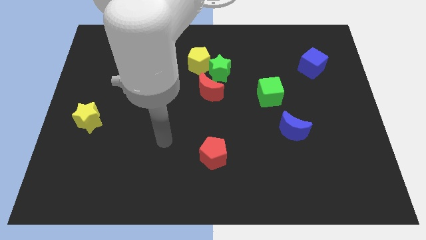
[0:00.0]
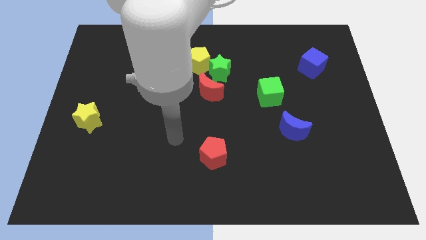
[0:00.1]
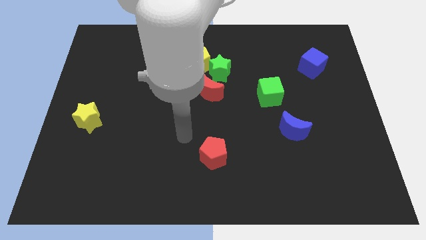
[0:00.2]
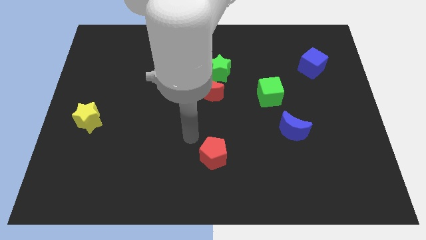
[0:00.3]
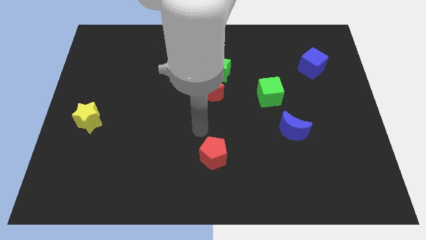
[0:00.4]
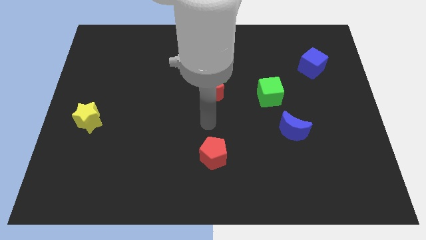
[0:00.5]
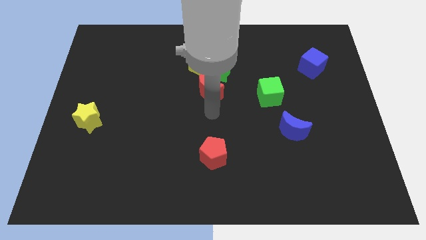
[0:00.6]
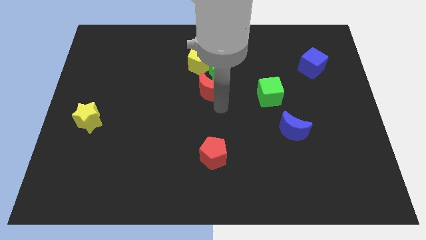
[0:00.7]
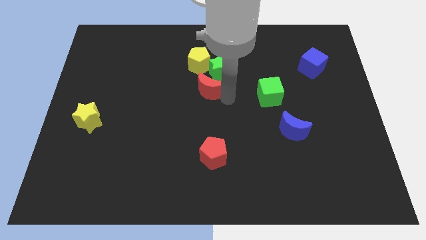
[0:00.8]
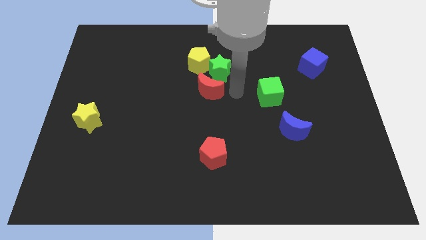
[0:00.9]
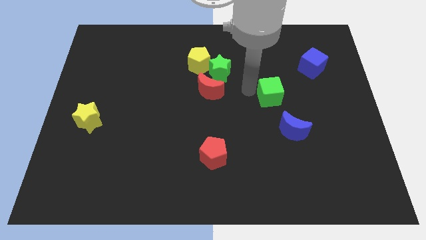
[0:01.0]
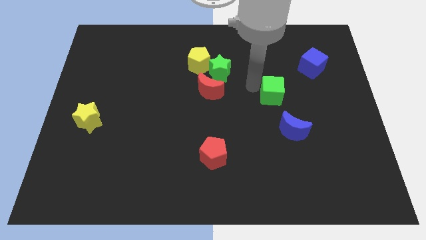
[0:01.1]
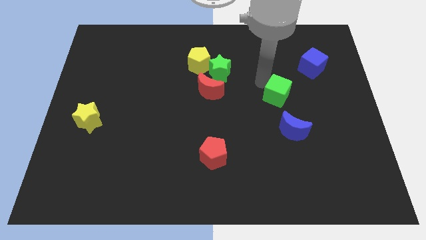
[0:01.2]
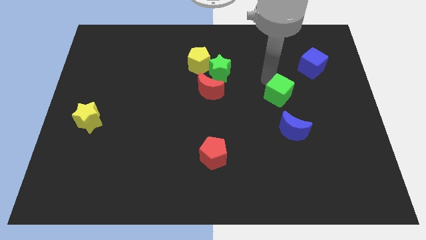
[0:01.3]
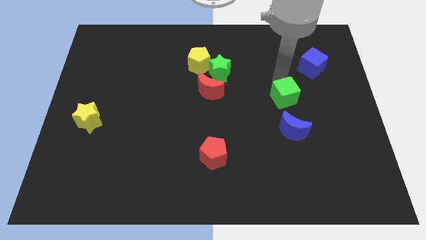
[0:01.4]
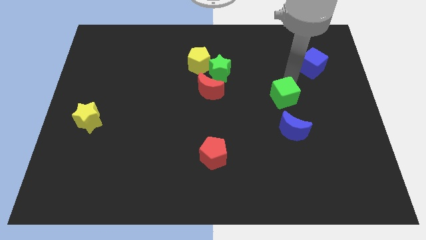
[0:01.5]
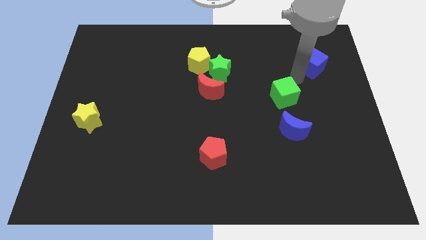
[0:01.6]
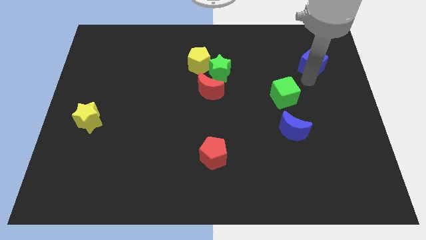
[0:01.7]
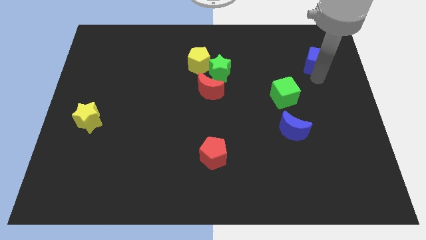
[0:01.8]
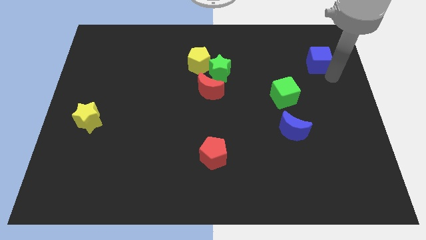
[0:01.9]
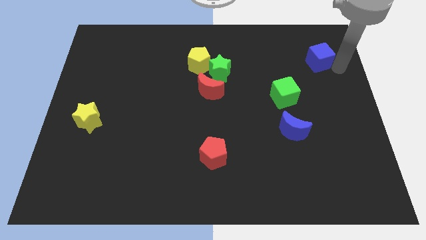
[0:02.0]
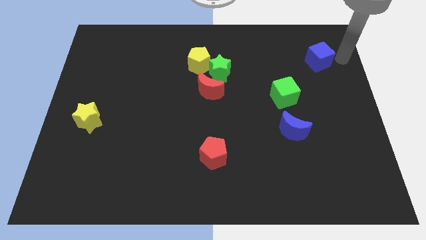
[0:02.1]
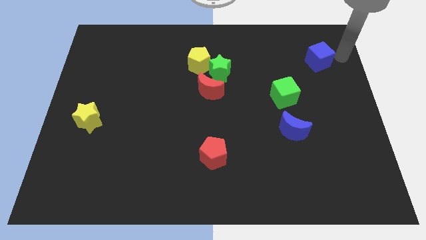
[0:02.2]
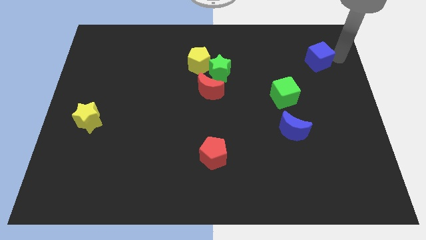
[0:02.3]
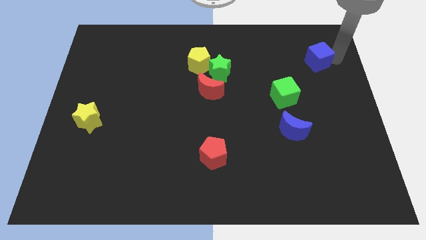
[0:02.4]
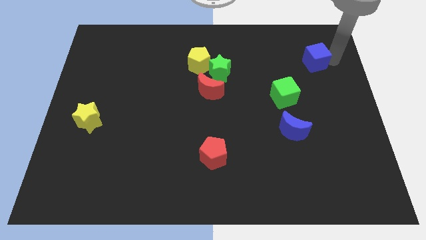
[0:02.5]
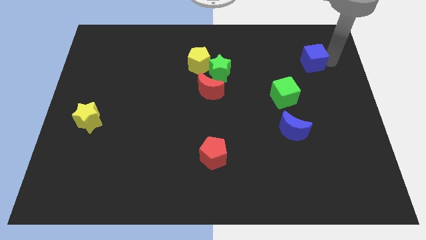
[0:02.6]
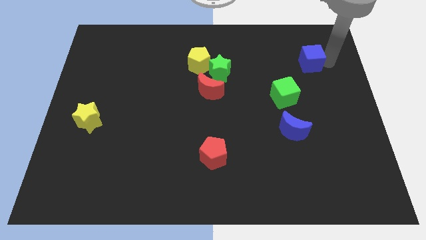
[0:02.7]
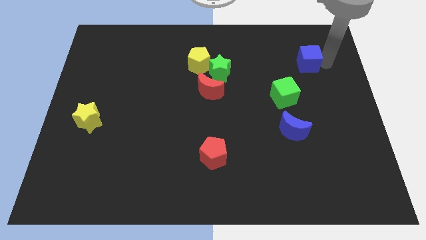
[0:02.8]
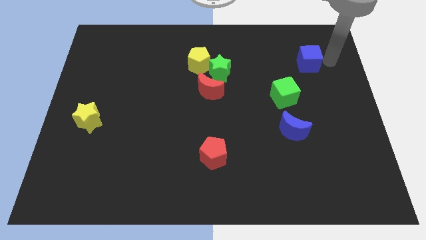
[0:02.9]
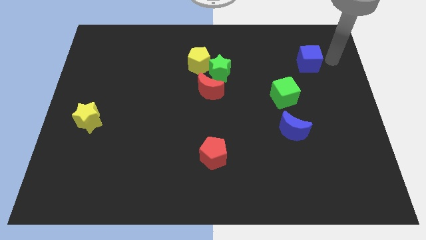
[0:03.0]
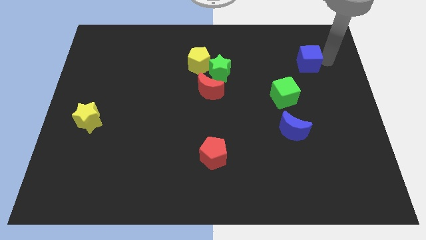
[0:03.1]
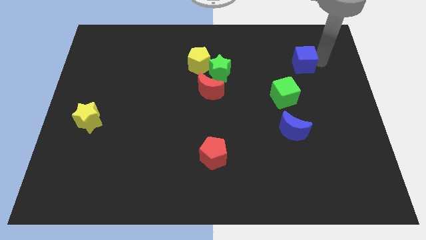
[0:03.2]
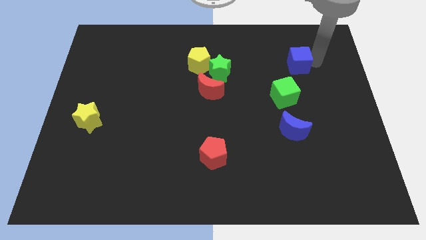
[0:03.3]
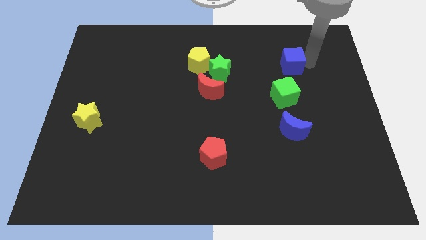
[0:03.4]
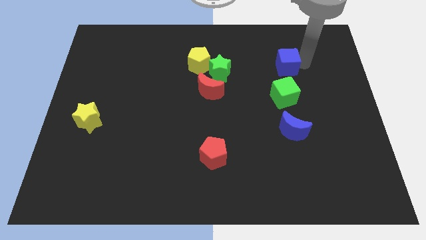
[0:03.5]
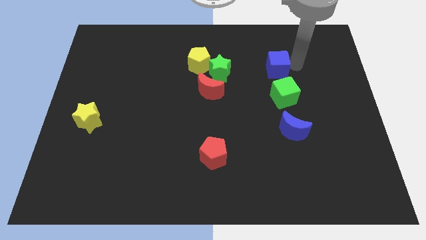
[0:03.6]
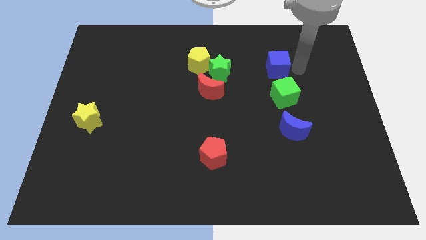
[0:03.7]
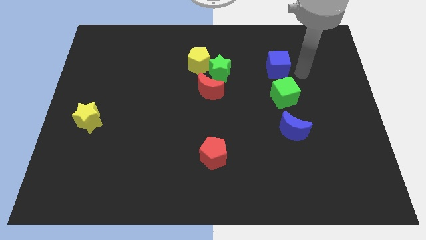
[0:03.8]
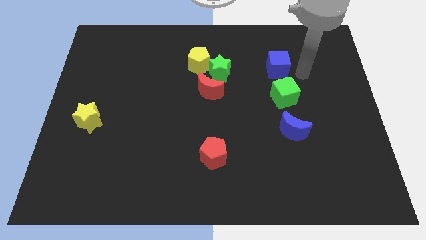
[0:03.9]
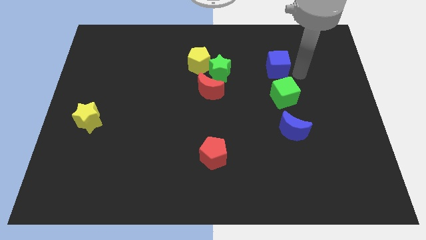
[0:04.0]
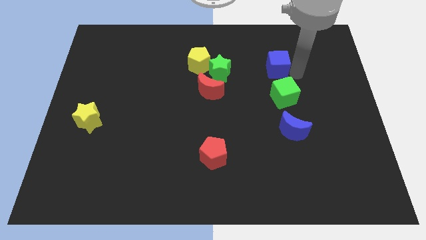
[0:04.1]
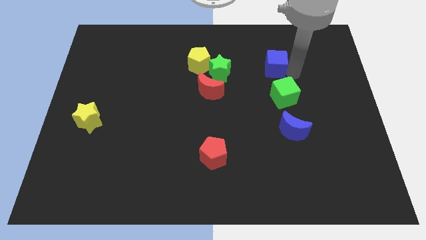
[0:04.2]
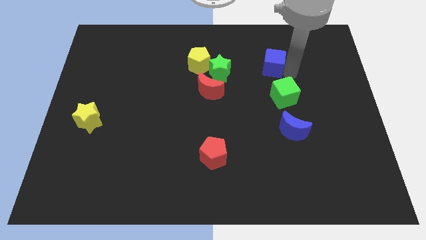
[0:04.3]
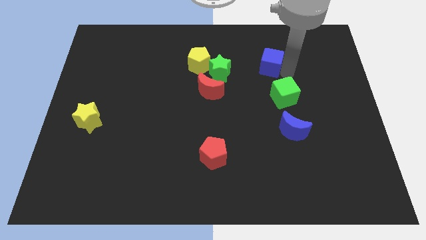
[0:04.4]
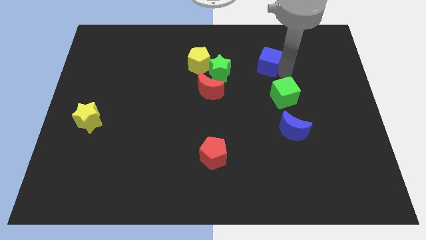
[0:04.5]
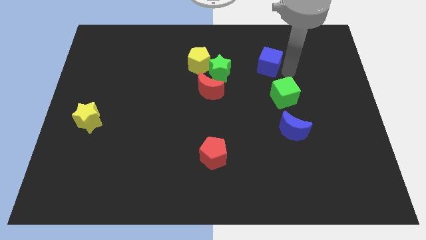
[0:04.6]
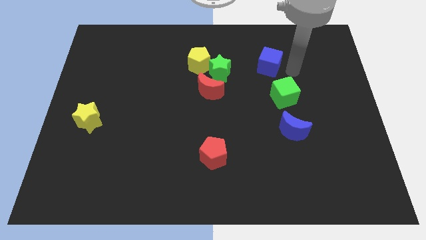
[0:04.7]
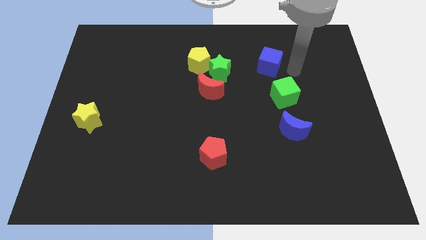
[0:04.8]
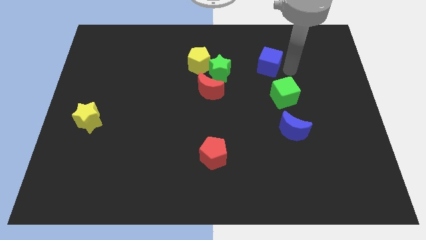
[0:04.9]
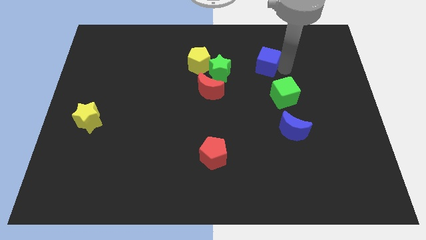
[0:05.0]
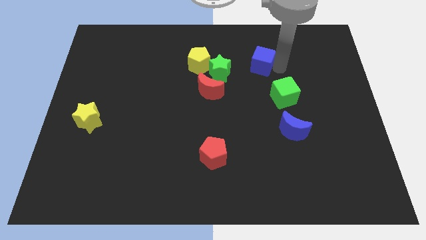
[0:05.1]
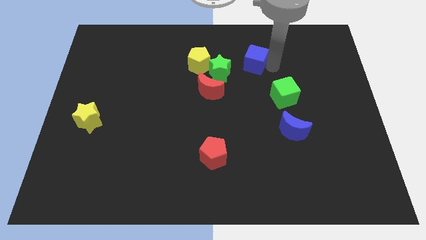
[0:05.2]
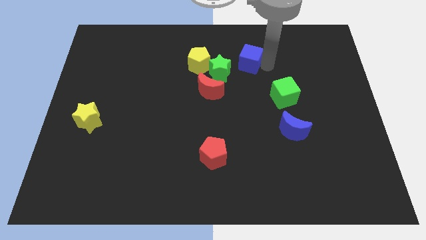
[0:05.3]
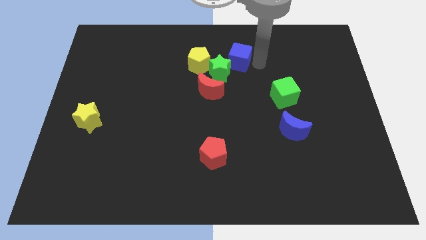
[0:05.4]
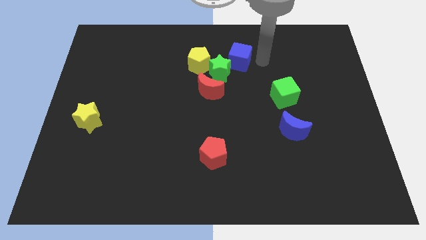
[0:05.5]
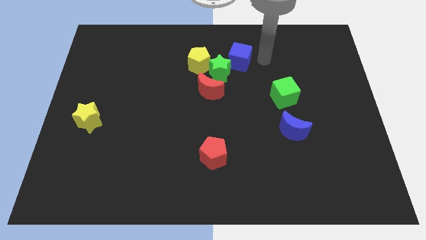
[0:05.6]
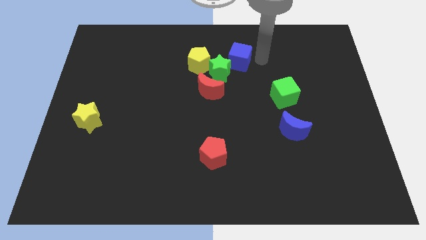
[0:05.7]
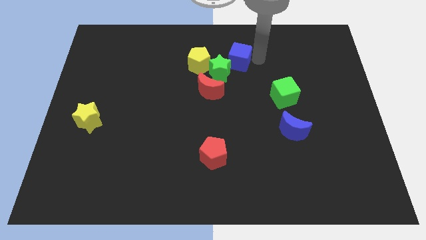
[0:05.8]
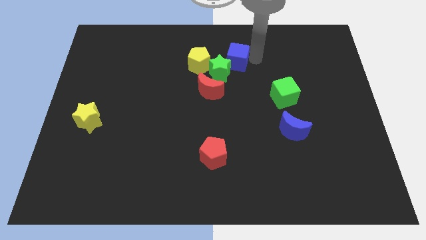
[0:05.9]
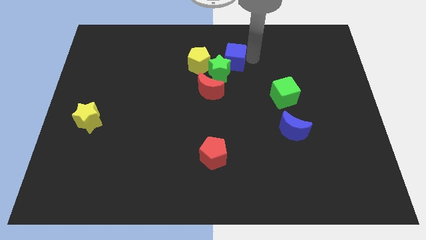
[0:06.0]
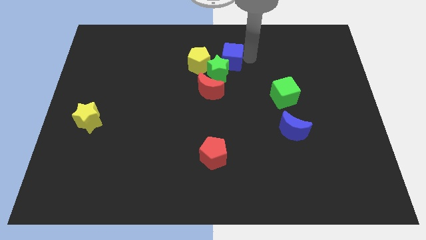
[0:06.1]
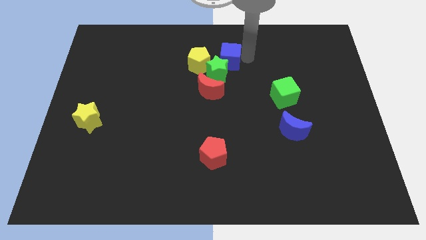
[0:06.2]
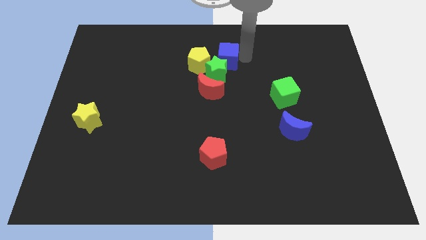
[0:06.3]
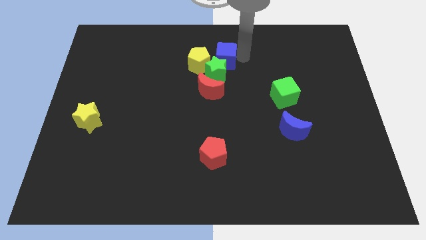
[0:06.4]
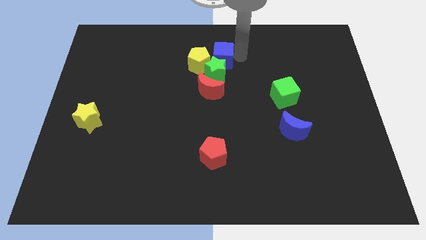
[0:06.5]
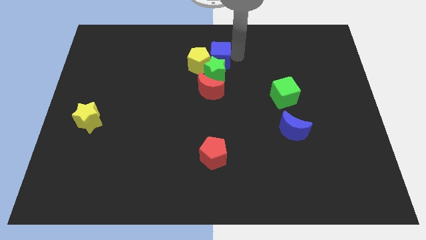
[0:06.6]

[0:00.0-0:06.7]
slide the blue cube close to the yellow pentagon

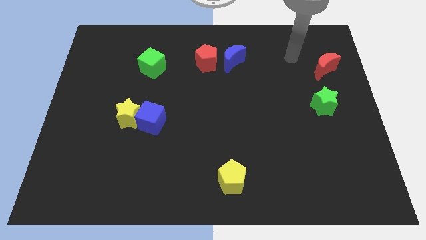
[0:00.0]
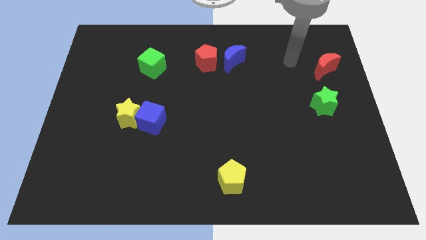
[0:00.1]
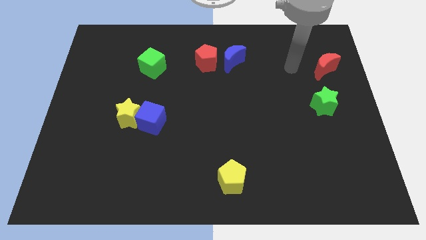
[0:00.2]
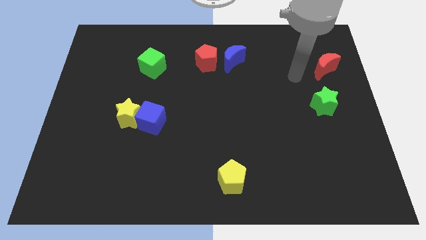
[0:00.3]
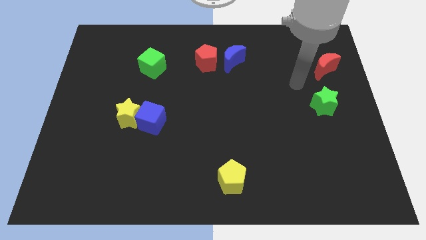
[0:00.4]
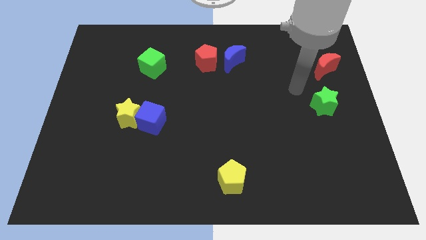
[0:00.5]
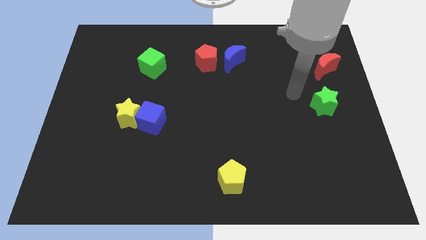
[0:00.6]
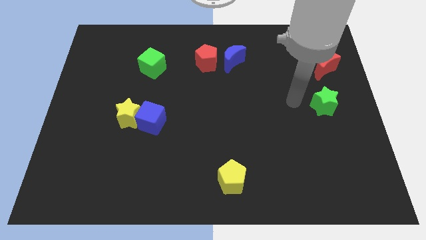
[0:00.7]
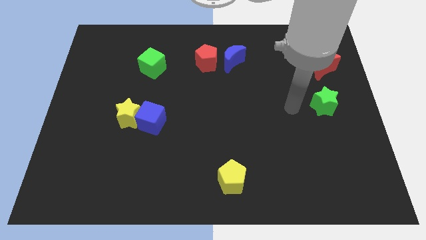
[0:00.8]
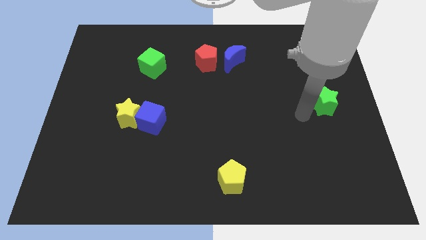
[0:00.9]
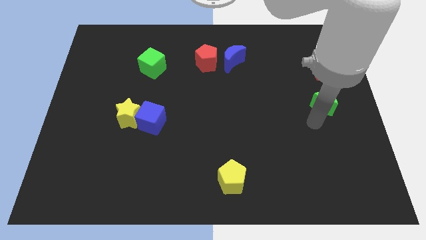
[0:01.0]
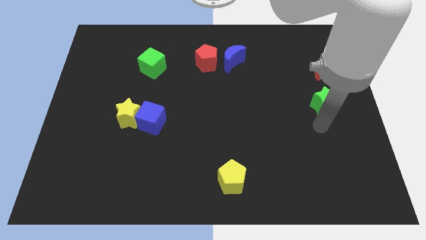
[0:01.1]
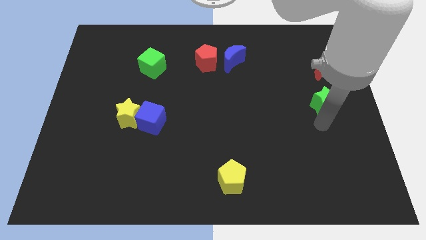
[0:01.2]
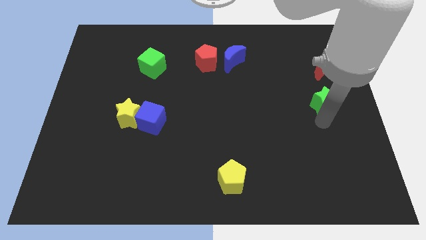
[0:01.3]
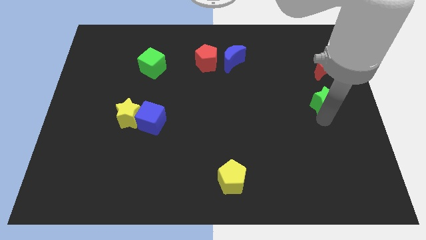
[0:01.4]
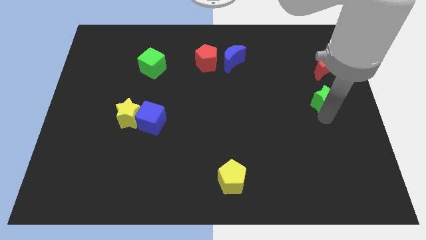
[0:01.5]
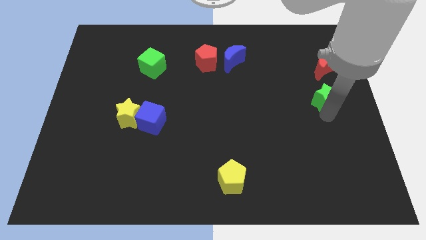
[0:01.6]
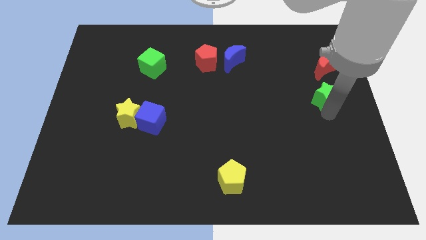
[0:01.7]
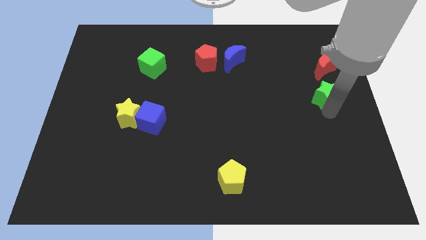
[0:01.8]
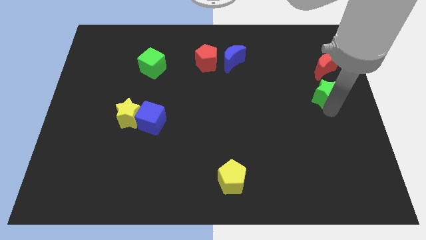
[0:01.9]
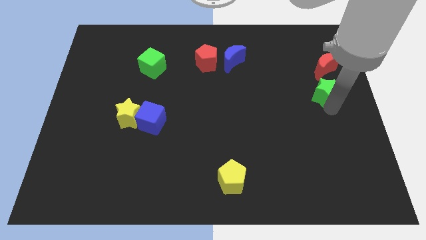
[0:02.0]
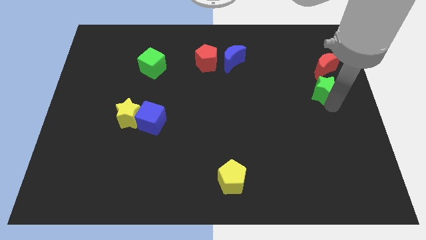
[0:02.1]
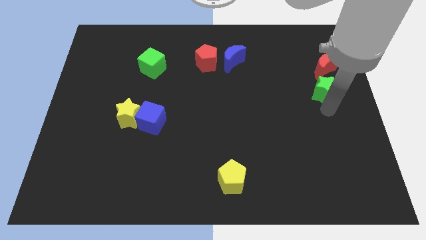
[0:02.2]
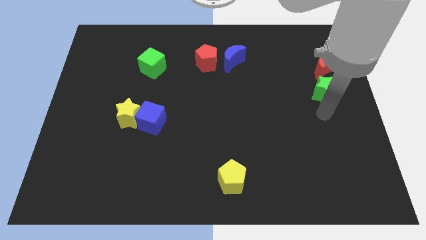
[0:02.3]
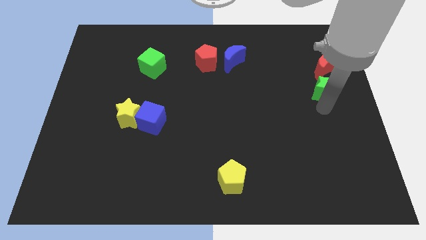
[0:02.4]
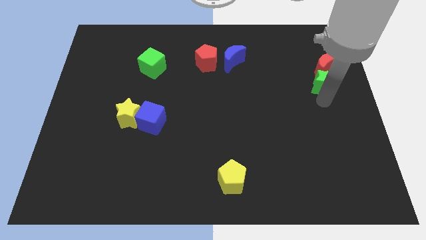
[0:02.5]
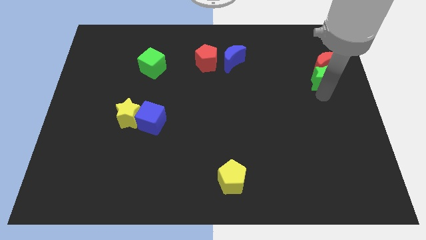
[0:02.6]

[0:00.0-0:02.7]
push the green star next to the red moon
